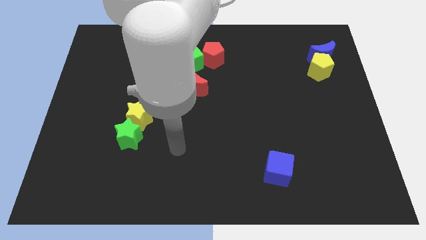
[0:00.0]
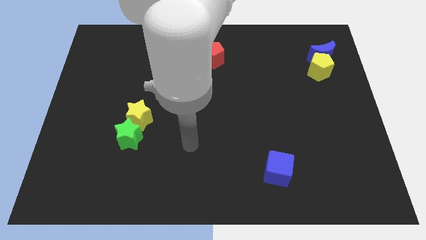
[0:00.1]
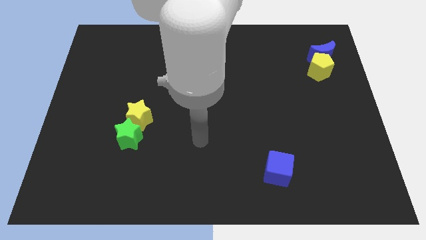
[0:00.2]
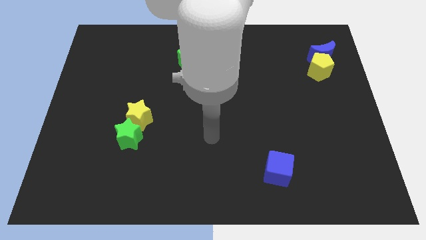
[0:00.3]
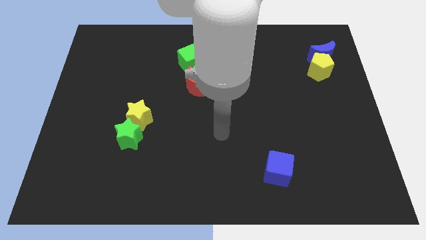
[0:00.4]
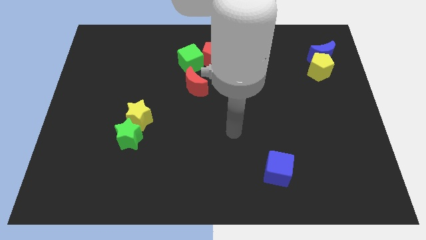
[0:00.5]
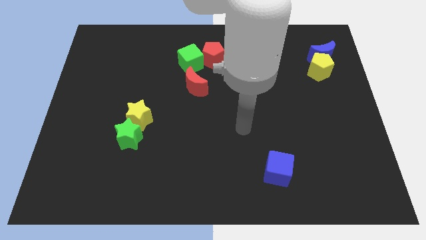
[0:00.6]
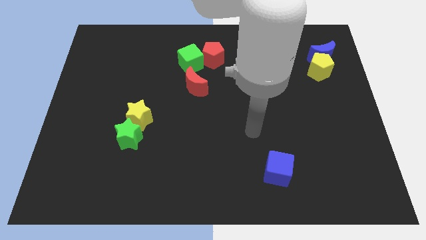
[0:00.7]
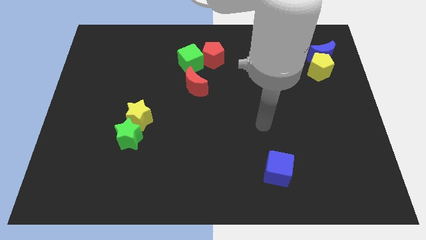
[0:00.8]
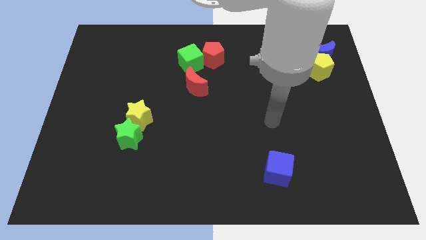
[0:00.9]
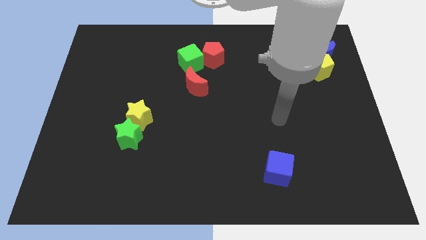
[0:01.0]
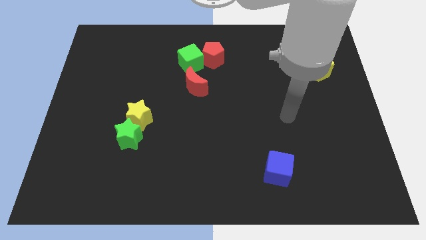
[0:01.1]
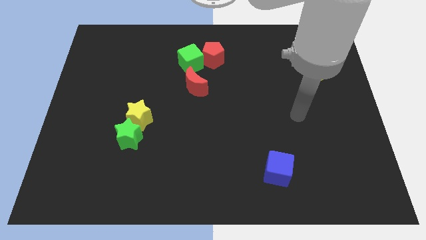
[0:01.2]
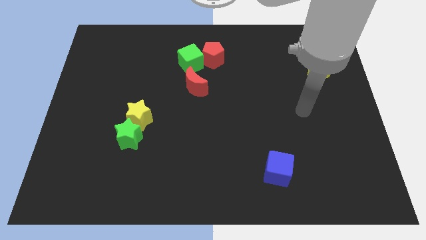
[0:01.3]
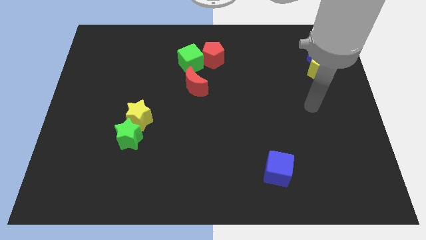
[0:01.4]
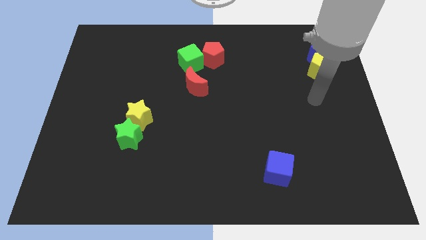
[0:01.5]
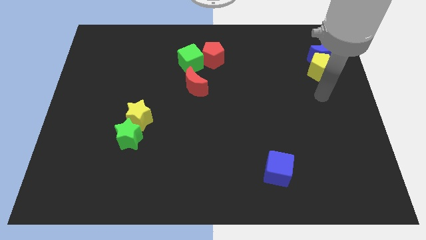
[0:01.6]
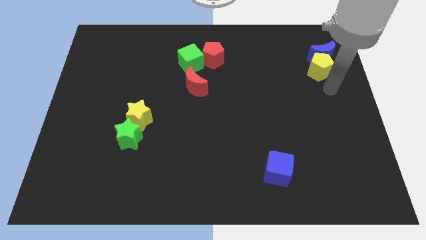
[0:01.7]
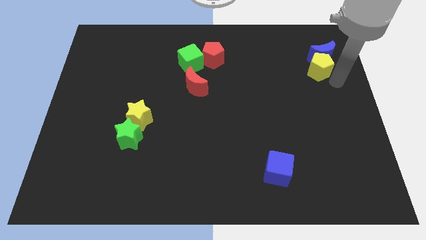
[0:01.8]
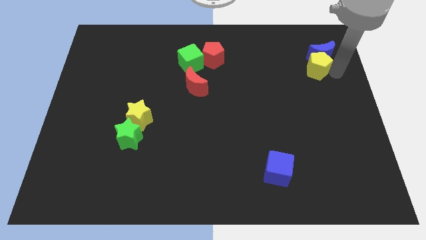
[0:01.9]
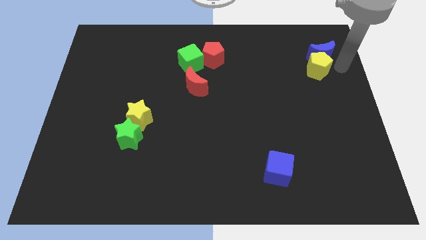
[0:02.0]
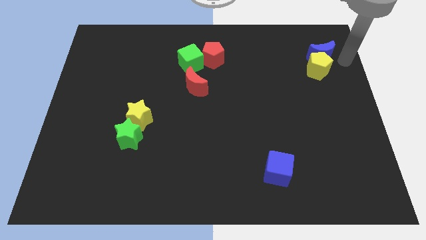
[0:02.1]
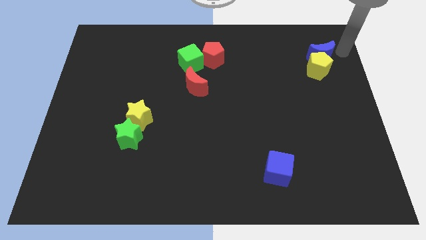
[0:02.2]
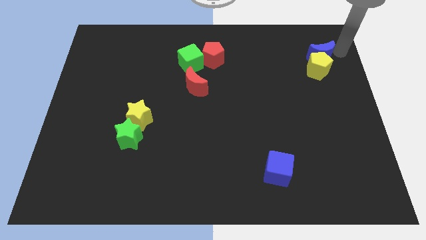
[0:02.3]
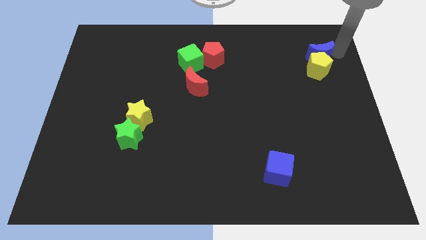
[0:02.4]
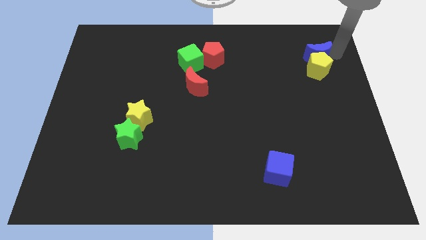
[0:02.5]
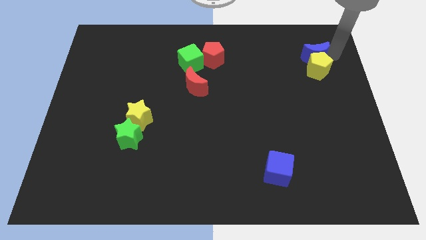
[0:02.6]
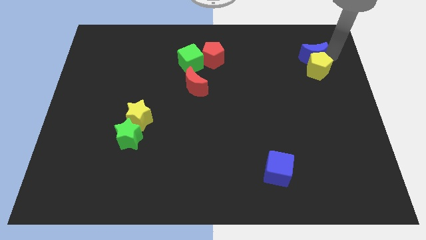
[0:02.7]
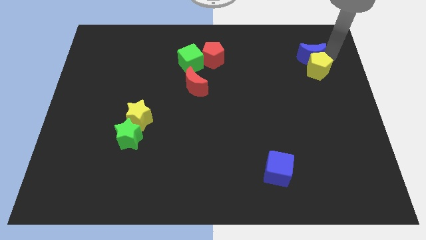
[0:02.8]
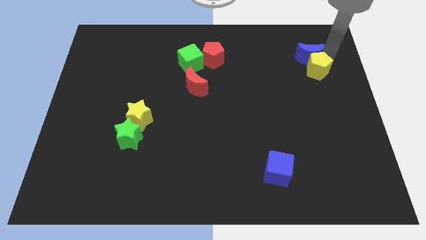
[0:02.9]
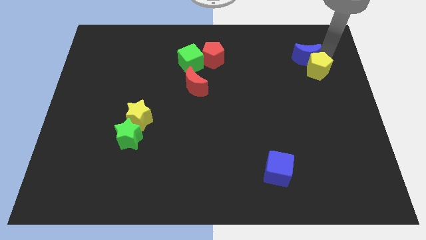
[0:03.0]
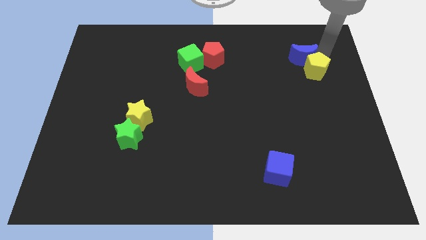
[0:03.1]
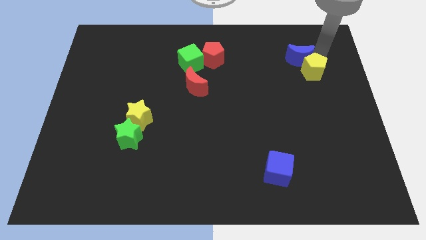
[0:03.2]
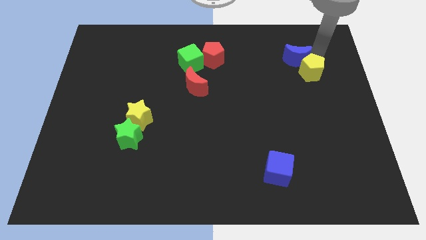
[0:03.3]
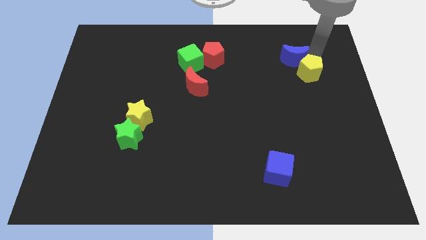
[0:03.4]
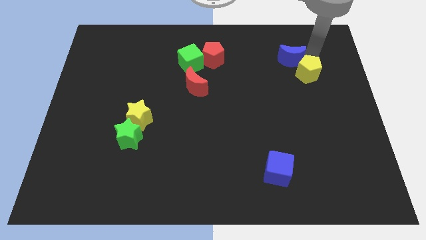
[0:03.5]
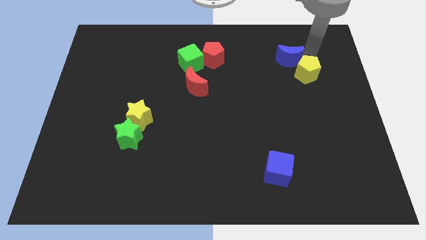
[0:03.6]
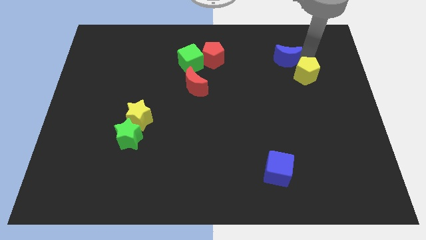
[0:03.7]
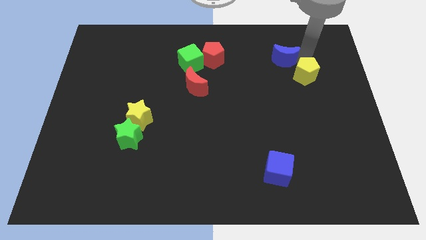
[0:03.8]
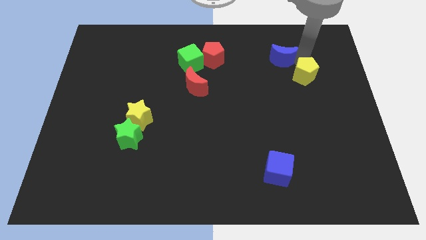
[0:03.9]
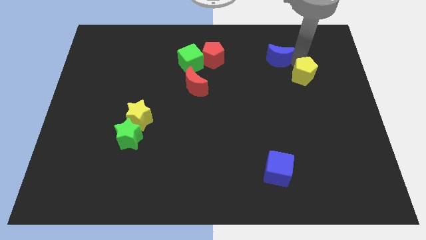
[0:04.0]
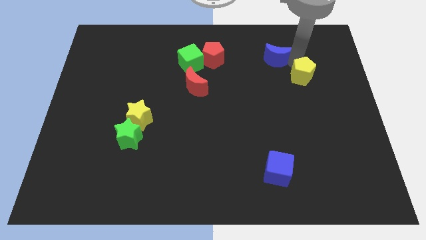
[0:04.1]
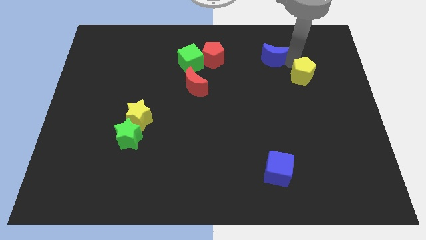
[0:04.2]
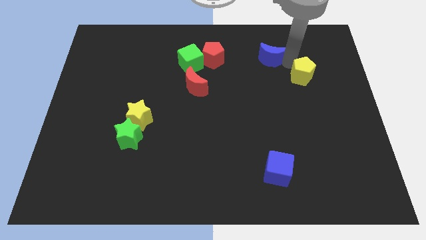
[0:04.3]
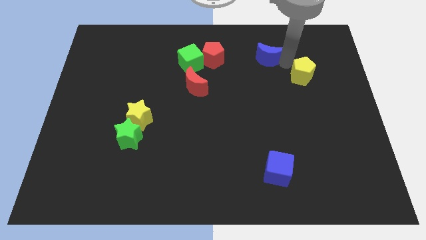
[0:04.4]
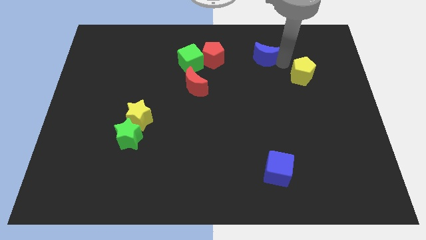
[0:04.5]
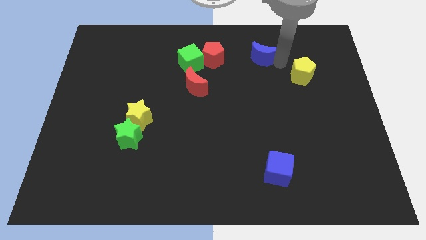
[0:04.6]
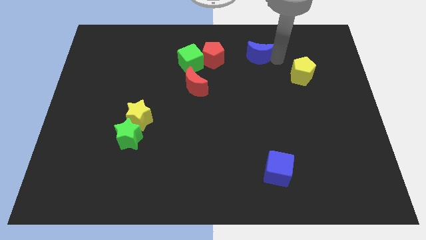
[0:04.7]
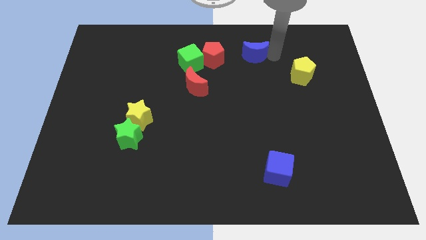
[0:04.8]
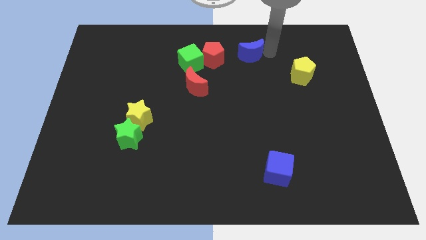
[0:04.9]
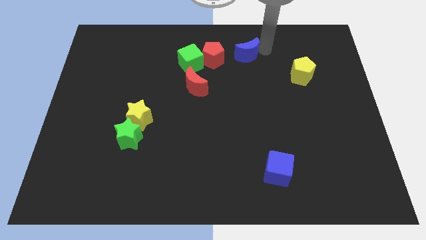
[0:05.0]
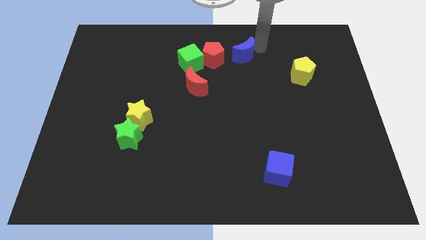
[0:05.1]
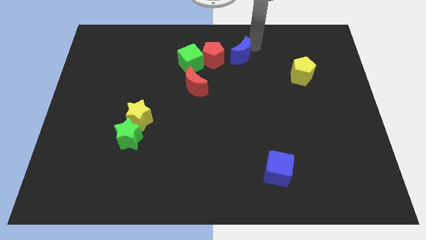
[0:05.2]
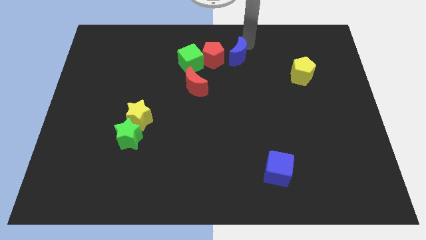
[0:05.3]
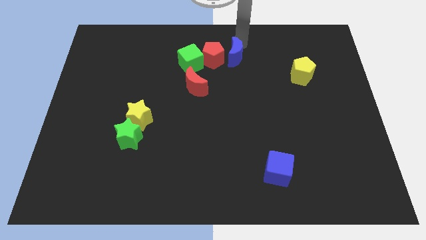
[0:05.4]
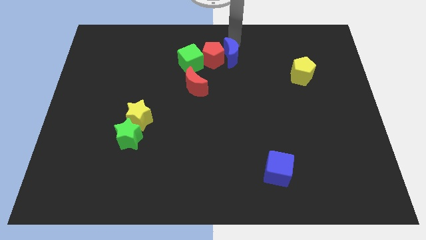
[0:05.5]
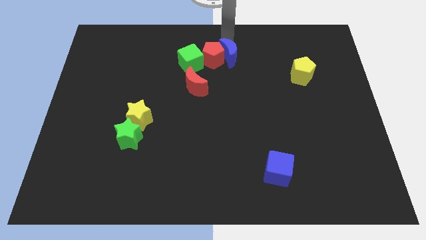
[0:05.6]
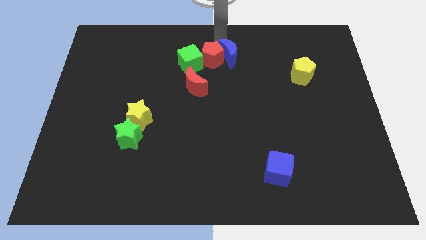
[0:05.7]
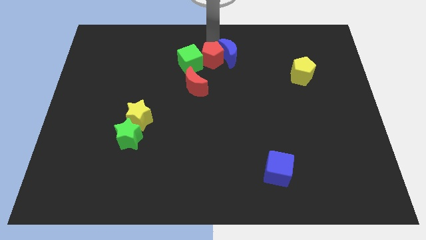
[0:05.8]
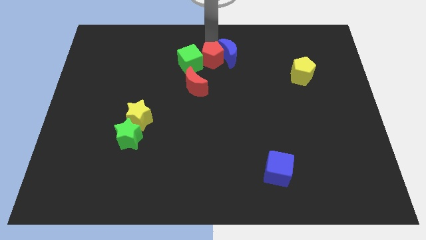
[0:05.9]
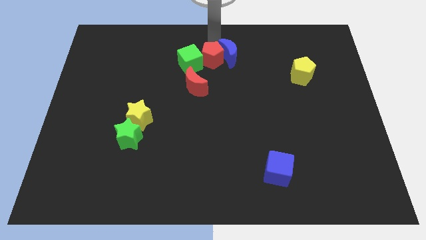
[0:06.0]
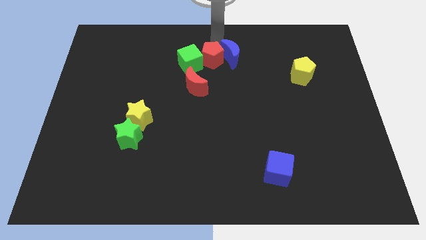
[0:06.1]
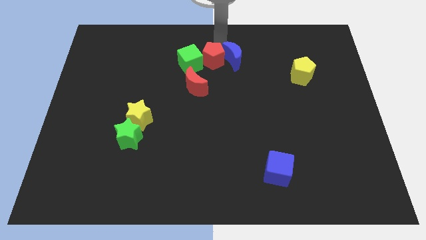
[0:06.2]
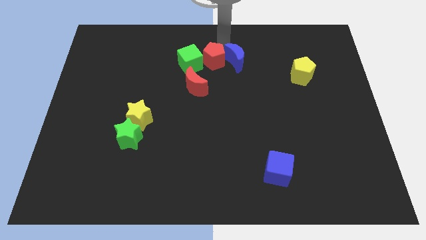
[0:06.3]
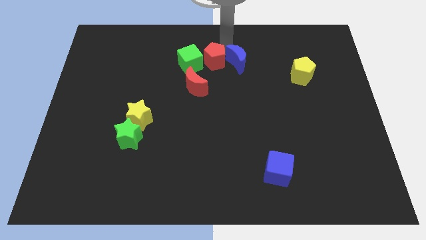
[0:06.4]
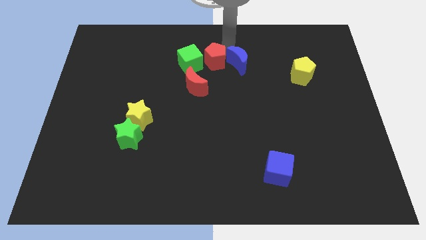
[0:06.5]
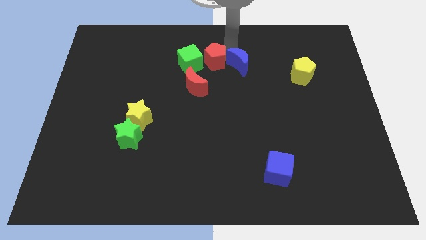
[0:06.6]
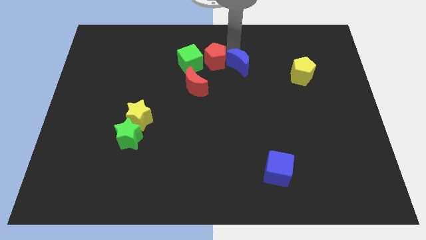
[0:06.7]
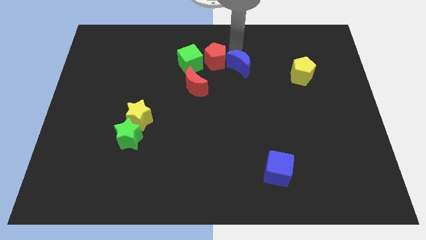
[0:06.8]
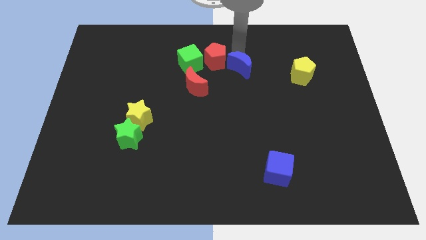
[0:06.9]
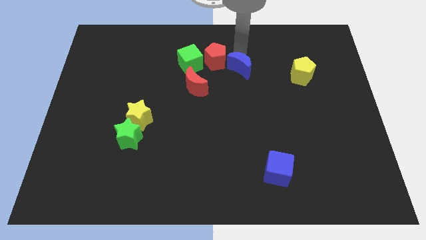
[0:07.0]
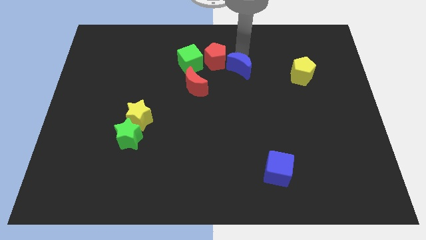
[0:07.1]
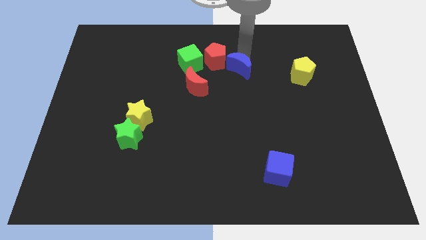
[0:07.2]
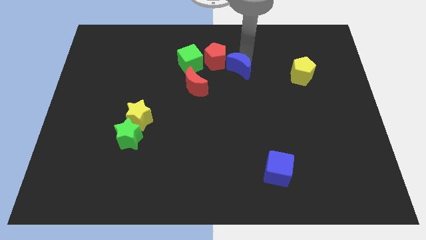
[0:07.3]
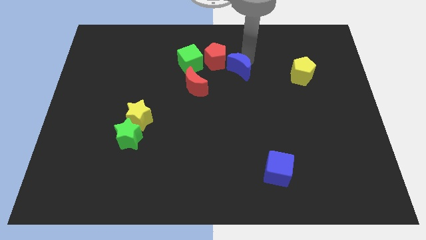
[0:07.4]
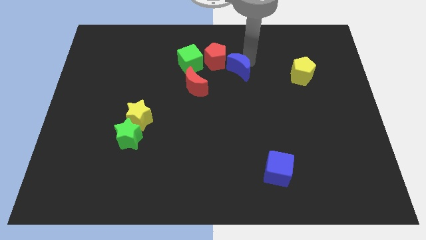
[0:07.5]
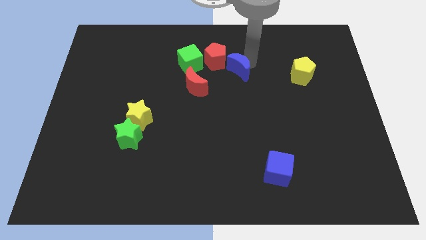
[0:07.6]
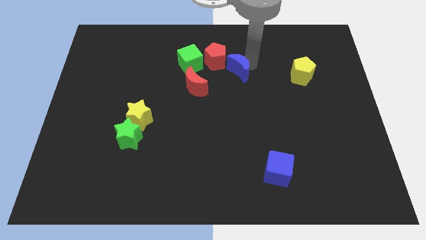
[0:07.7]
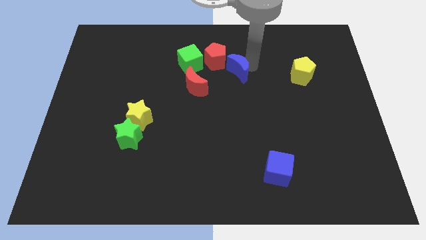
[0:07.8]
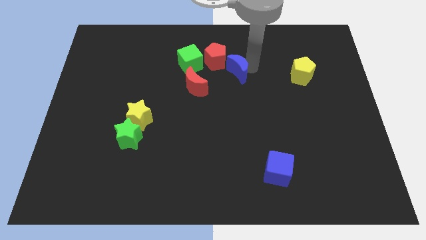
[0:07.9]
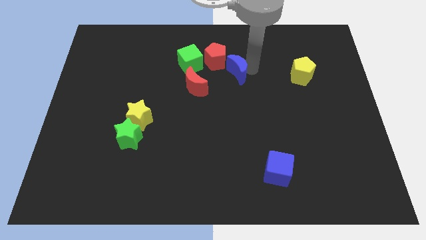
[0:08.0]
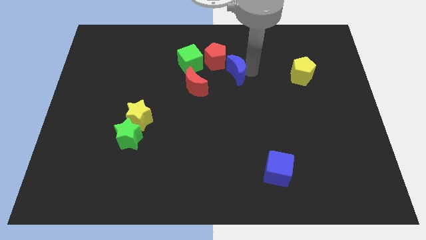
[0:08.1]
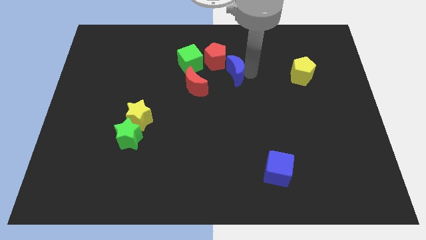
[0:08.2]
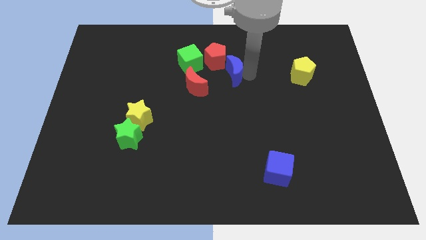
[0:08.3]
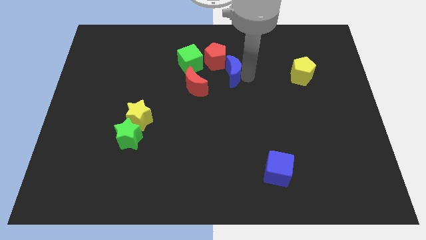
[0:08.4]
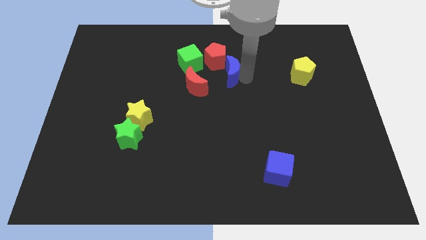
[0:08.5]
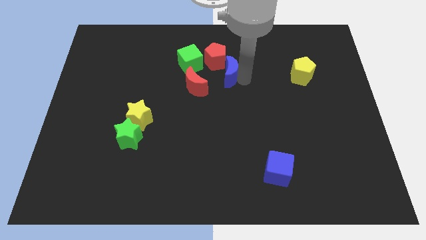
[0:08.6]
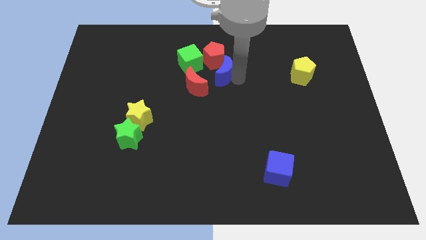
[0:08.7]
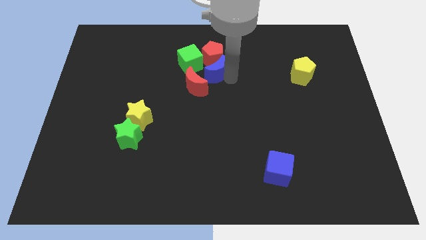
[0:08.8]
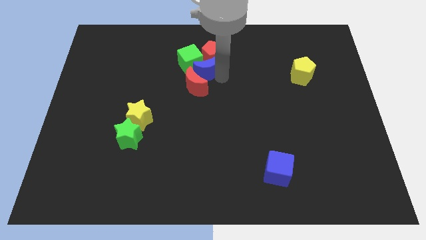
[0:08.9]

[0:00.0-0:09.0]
put the blue moon to the green cube
